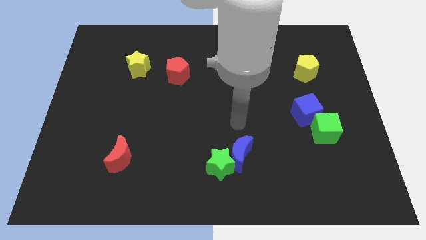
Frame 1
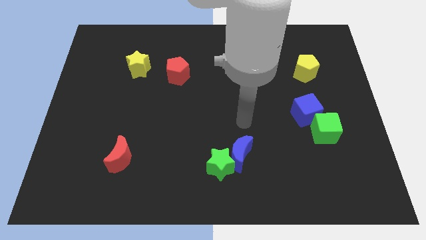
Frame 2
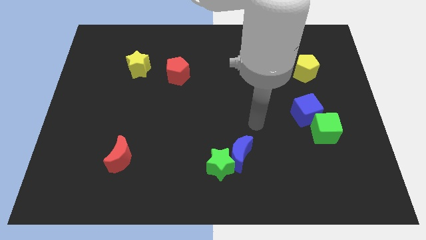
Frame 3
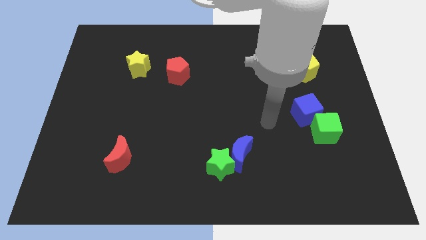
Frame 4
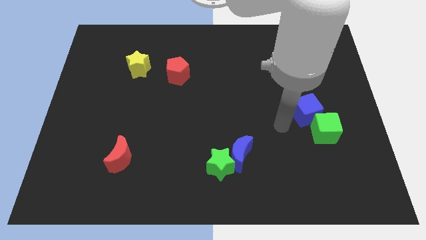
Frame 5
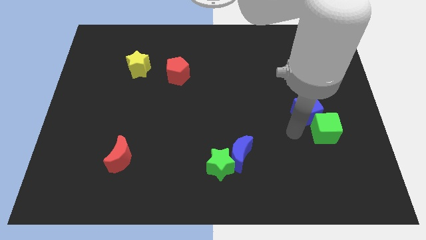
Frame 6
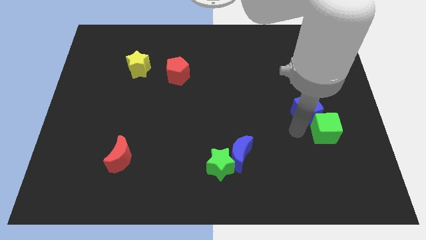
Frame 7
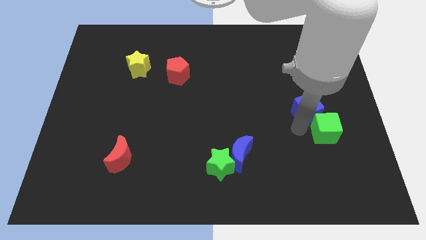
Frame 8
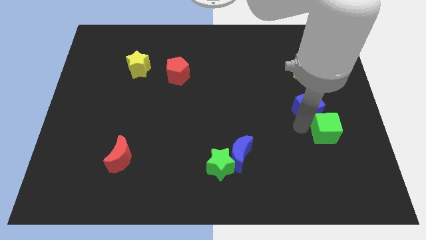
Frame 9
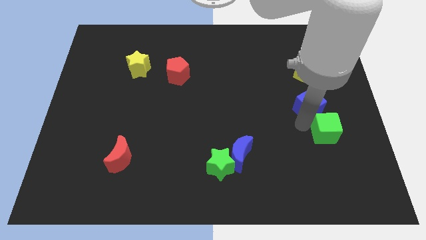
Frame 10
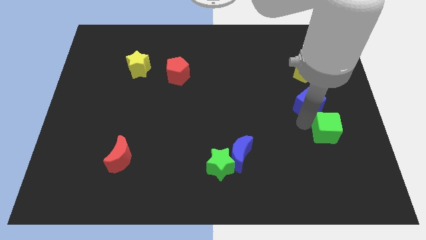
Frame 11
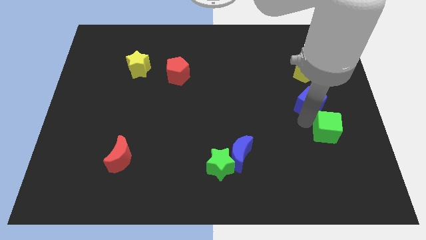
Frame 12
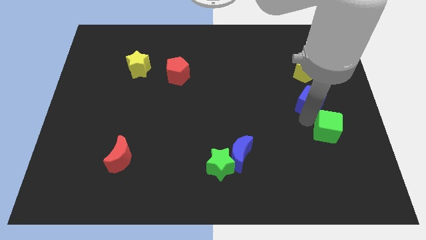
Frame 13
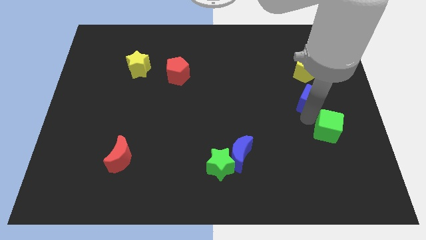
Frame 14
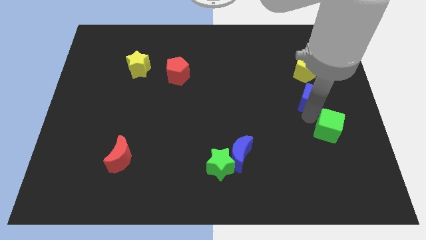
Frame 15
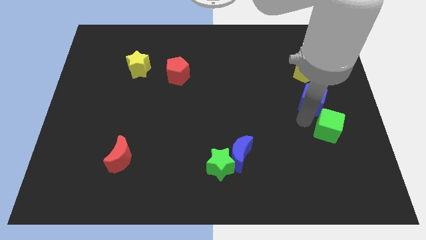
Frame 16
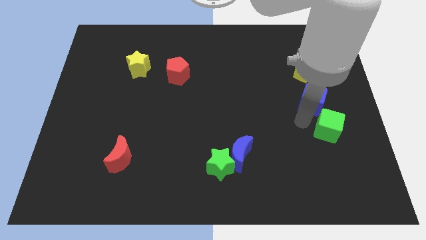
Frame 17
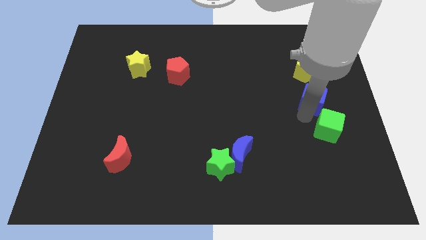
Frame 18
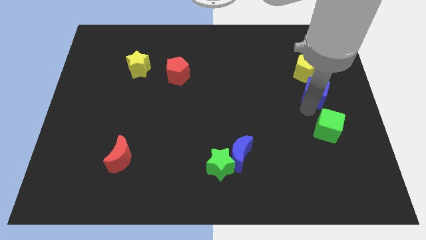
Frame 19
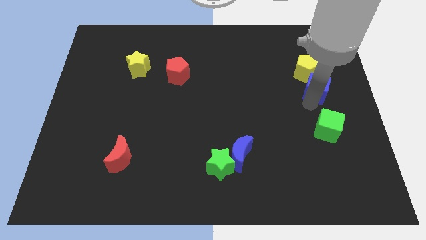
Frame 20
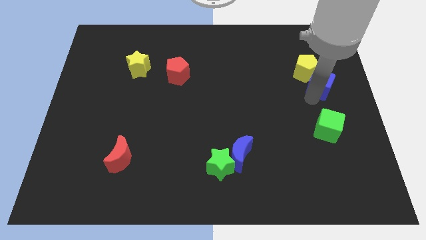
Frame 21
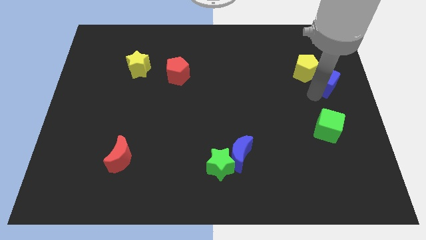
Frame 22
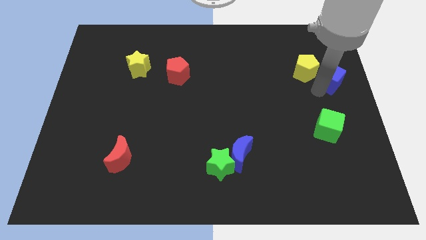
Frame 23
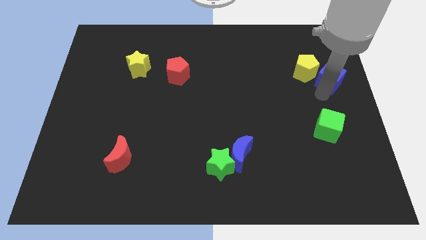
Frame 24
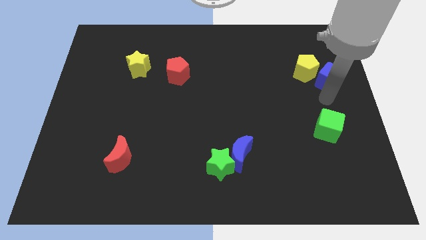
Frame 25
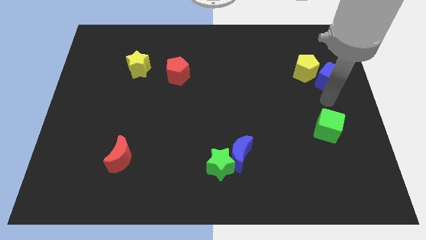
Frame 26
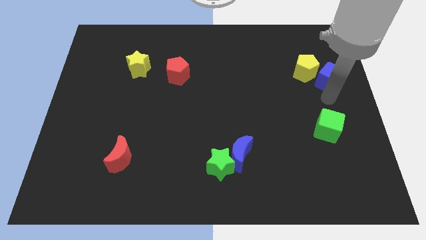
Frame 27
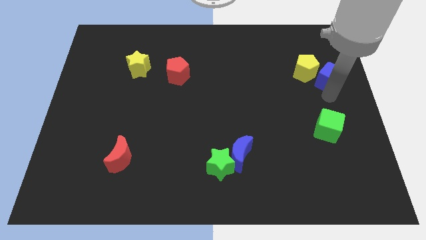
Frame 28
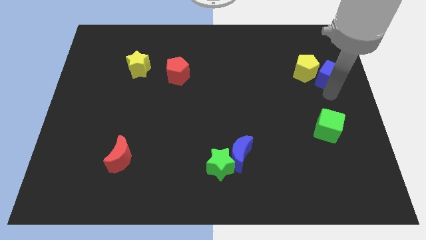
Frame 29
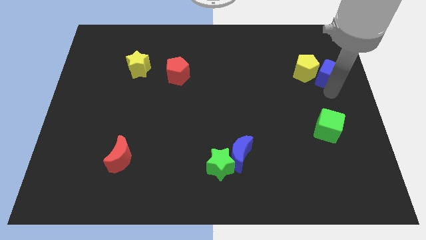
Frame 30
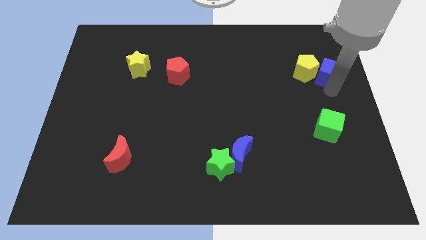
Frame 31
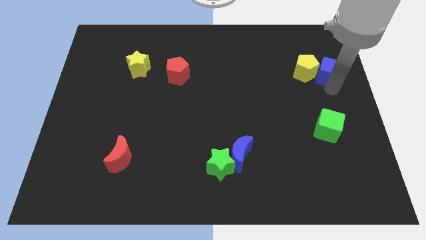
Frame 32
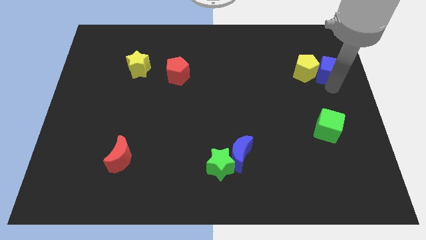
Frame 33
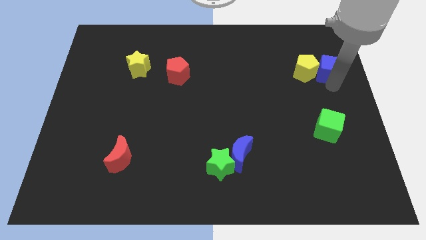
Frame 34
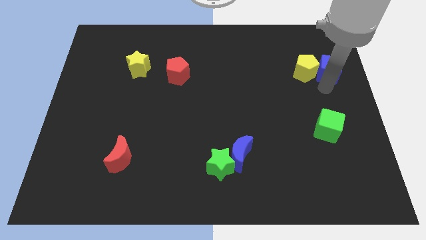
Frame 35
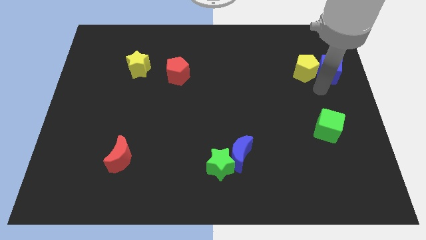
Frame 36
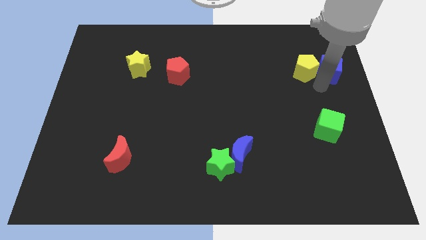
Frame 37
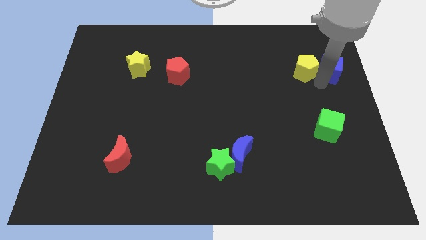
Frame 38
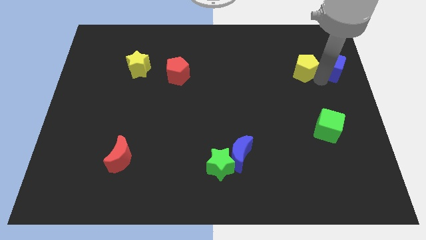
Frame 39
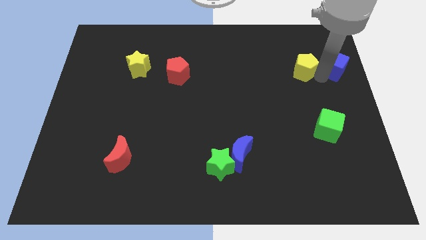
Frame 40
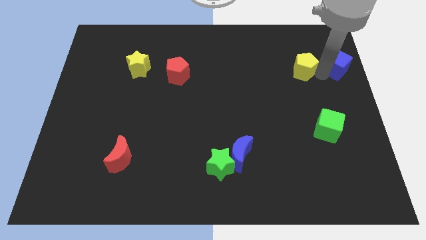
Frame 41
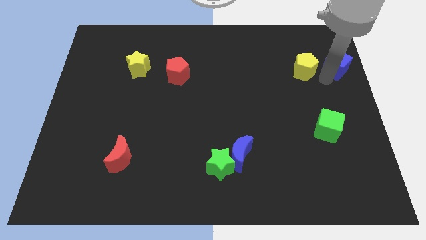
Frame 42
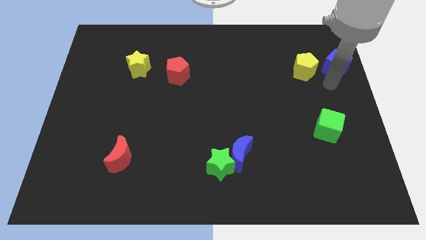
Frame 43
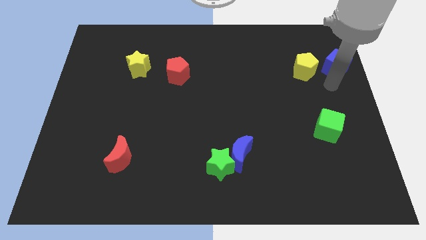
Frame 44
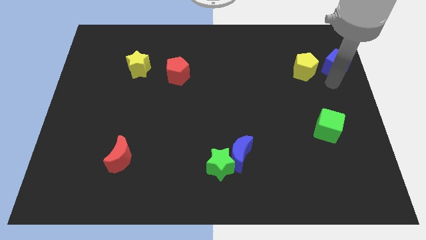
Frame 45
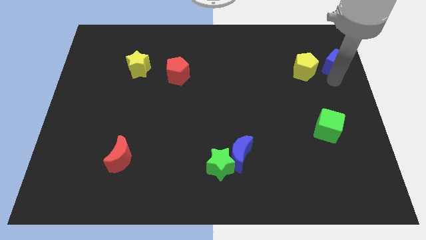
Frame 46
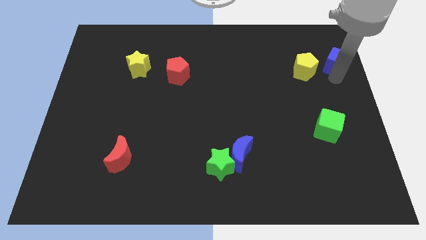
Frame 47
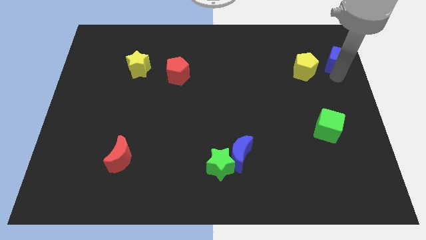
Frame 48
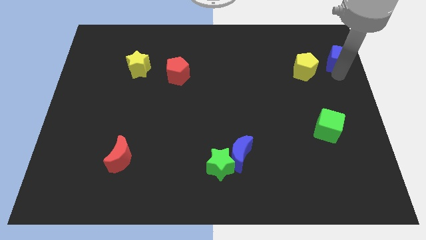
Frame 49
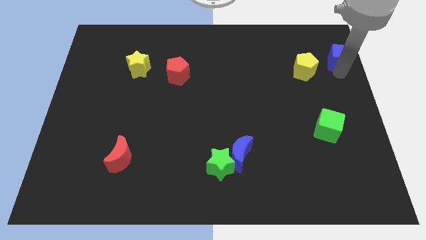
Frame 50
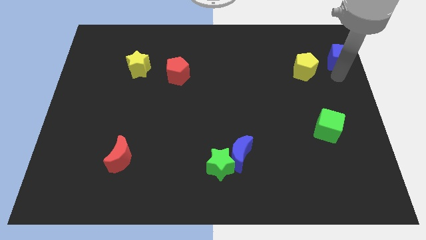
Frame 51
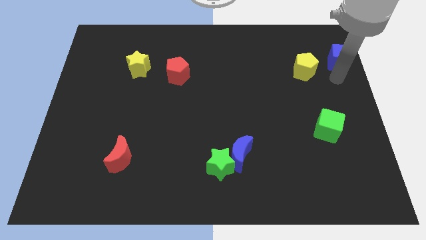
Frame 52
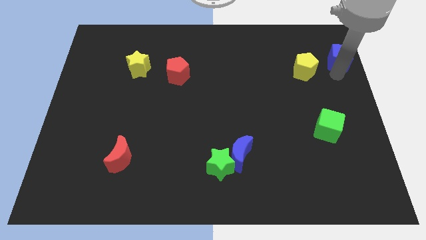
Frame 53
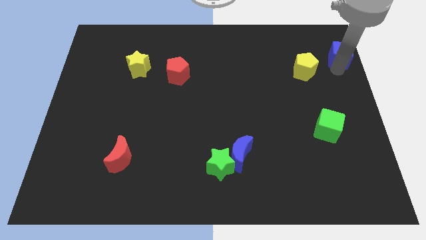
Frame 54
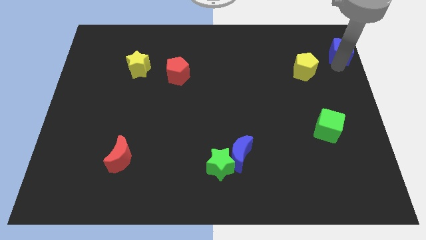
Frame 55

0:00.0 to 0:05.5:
move the blue cube to the upper right corner

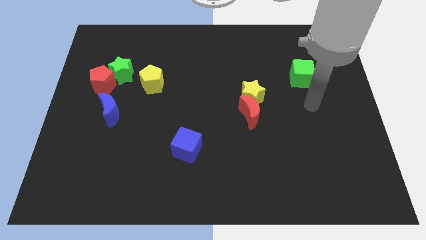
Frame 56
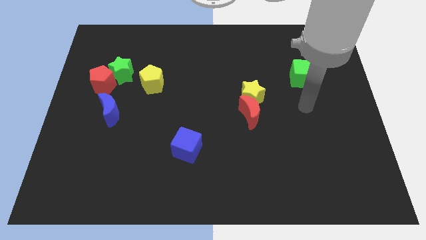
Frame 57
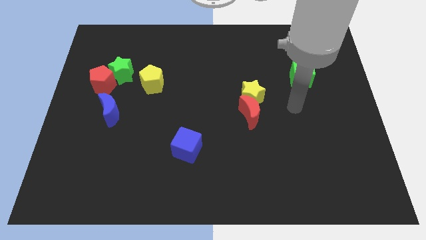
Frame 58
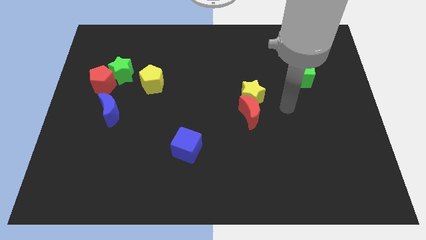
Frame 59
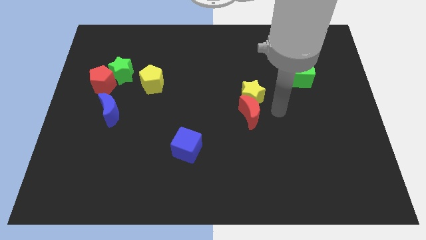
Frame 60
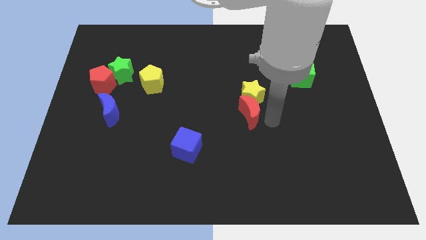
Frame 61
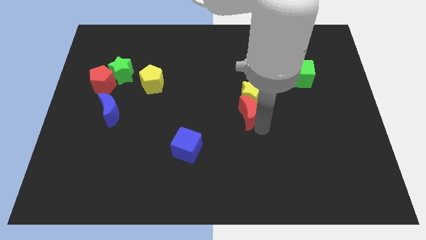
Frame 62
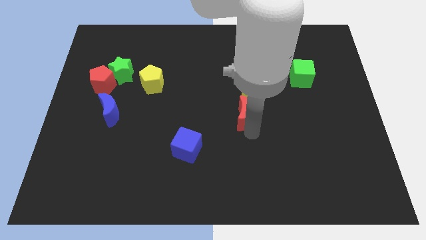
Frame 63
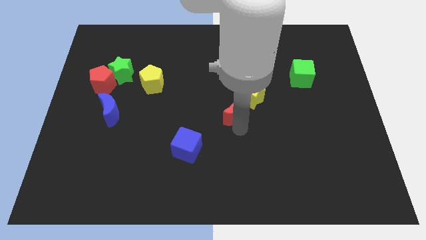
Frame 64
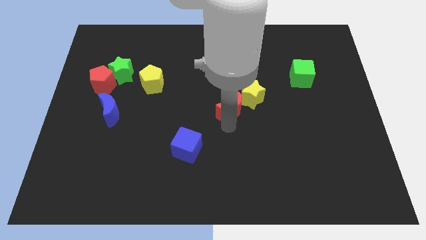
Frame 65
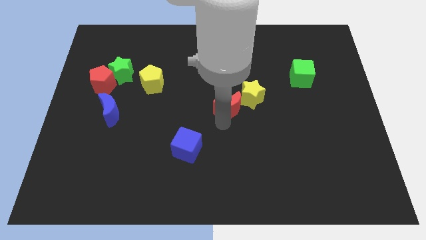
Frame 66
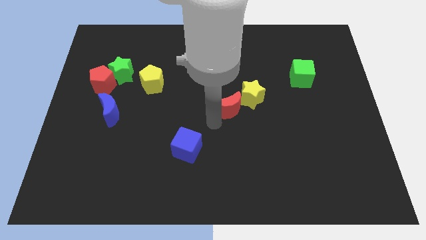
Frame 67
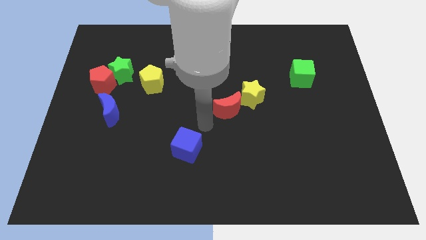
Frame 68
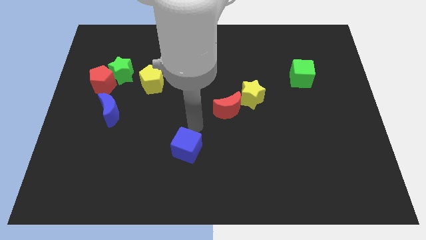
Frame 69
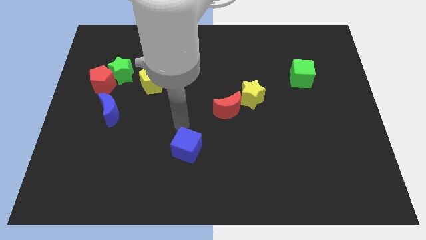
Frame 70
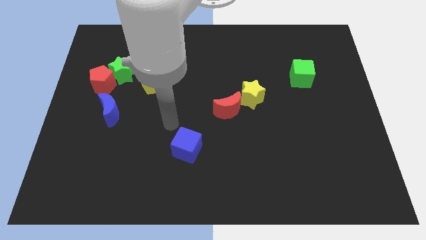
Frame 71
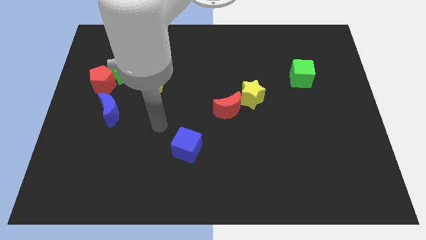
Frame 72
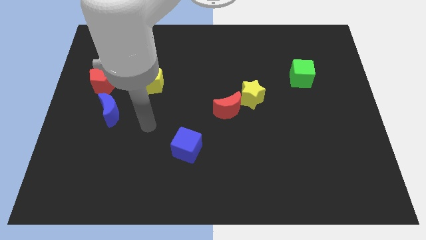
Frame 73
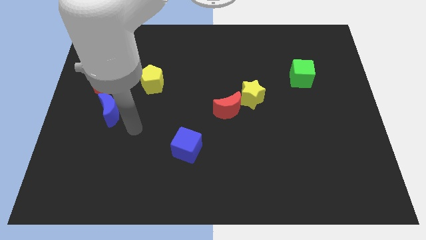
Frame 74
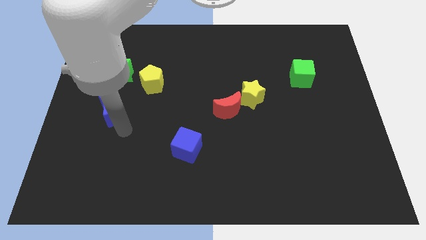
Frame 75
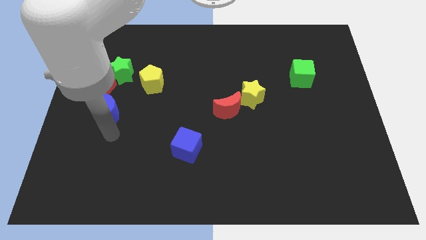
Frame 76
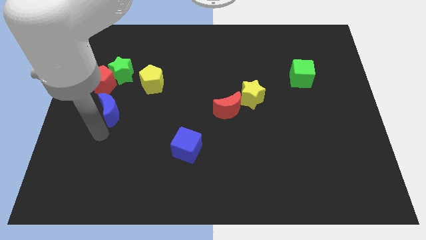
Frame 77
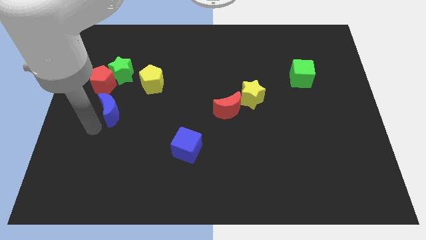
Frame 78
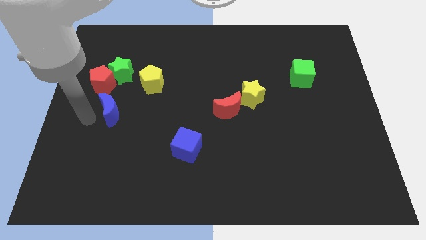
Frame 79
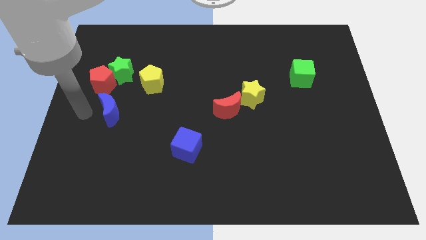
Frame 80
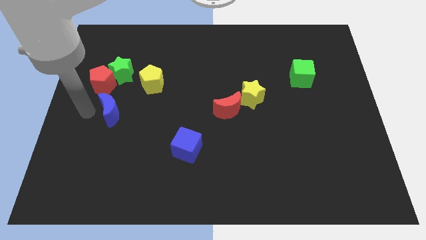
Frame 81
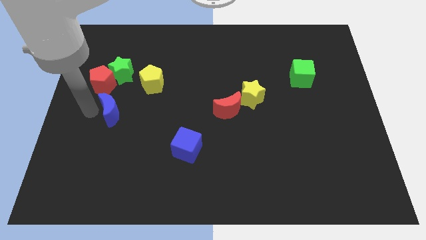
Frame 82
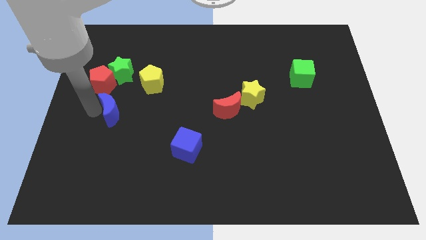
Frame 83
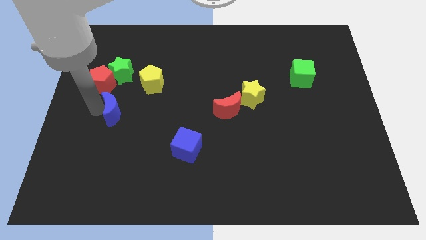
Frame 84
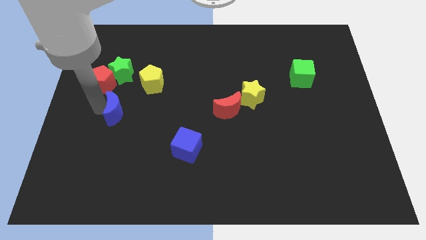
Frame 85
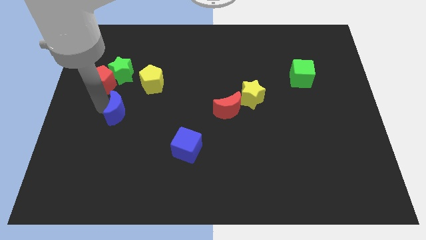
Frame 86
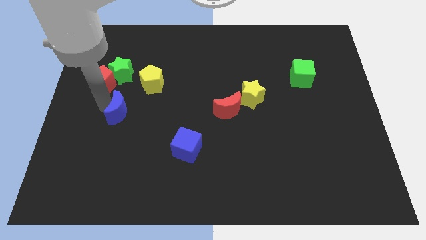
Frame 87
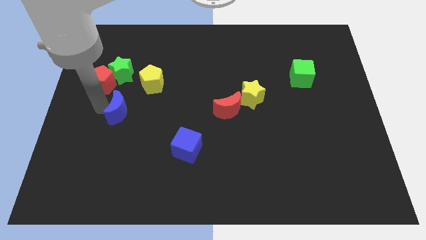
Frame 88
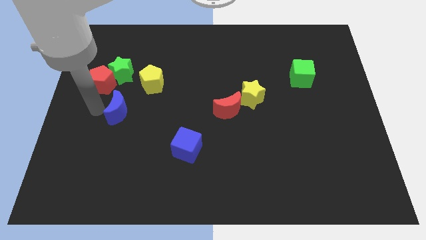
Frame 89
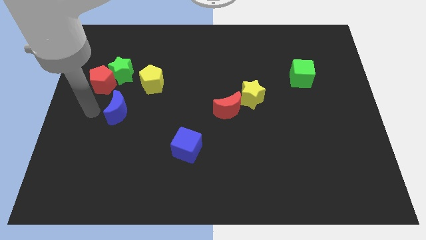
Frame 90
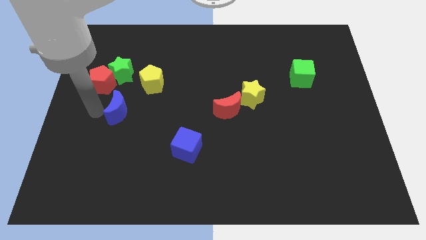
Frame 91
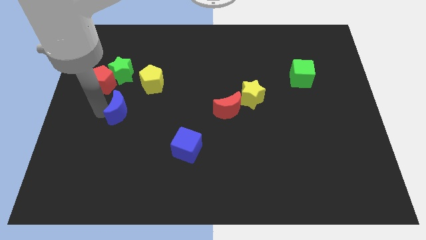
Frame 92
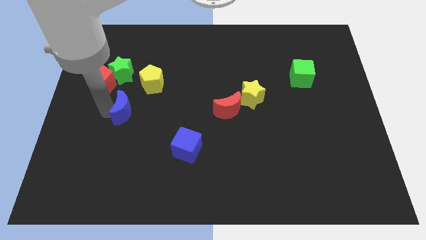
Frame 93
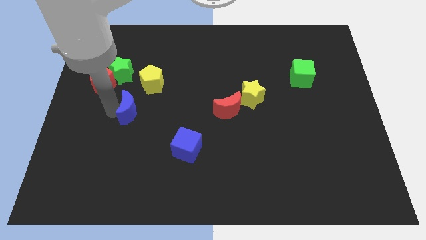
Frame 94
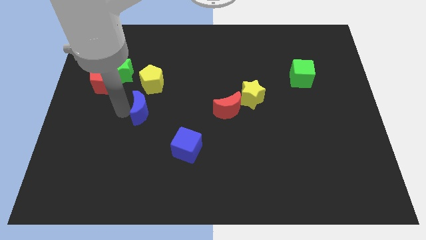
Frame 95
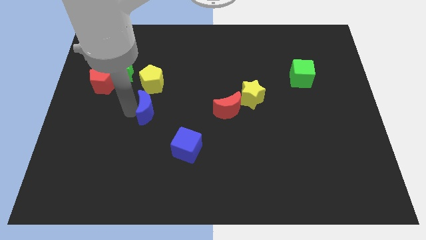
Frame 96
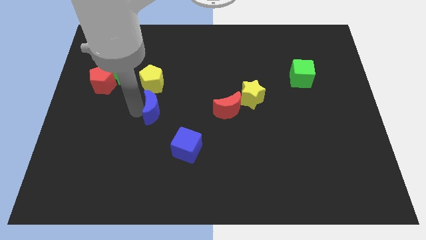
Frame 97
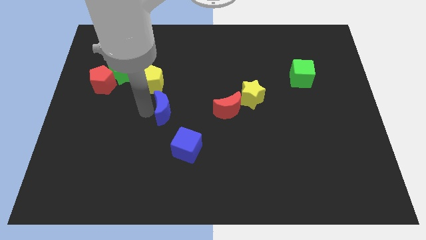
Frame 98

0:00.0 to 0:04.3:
move the blue moon to the middle of the board
